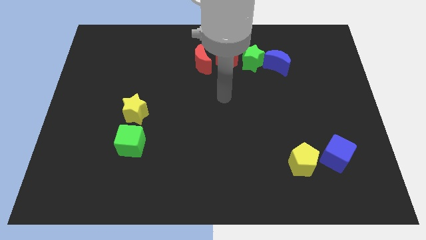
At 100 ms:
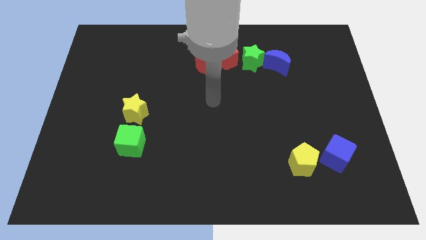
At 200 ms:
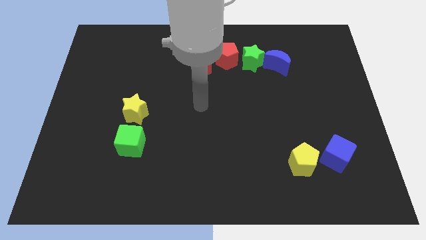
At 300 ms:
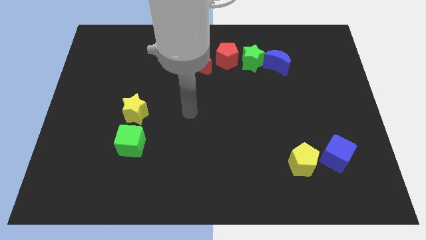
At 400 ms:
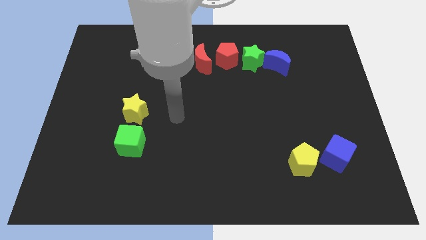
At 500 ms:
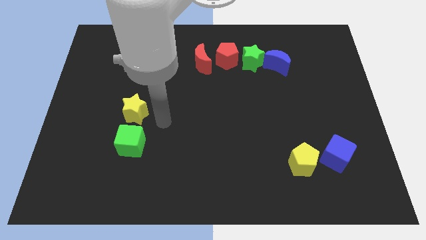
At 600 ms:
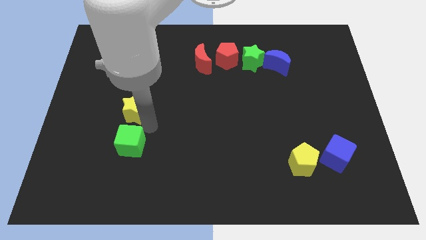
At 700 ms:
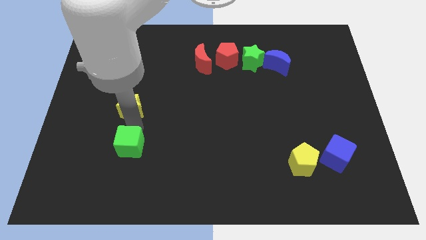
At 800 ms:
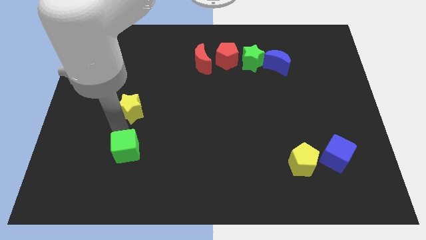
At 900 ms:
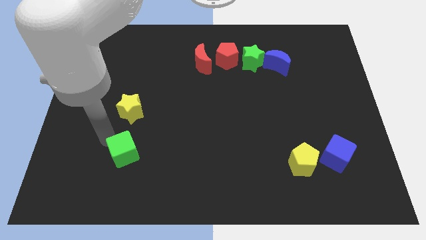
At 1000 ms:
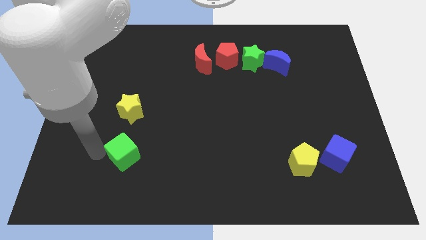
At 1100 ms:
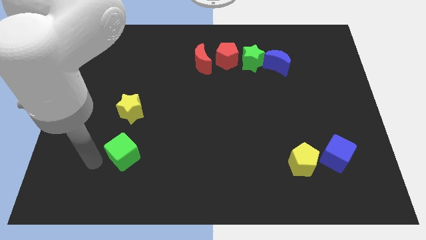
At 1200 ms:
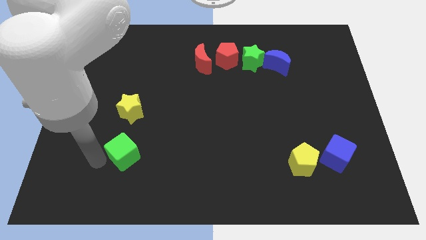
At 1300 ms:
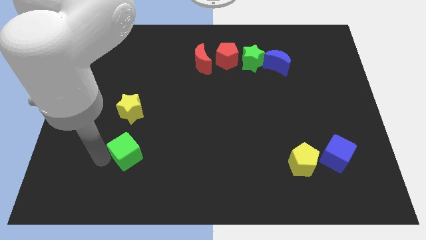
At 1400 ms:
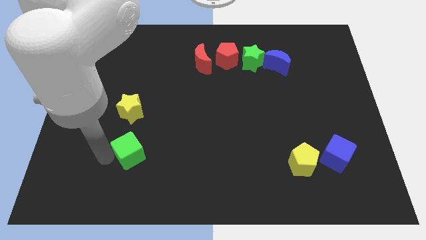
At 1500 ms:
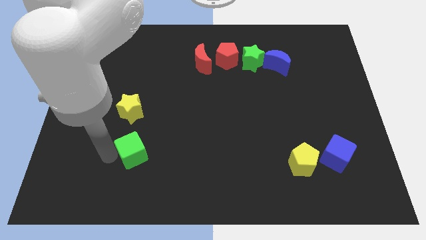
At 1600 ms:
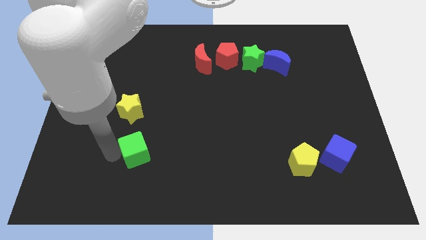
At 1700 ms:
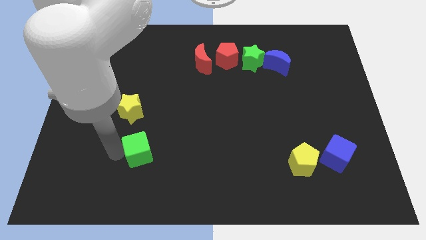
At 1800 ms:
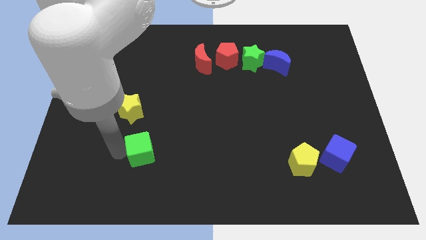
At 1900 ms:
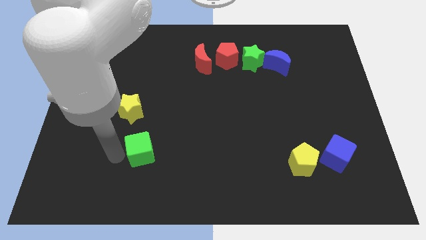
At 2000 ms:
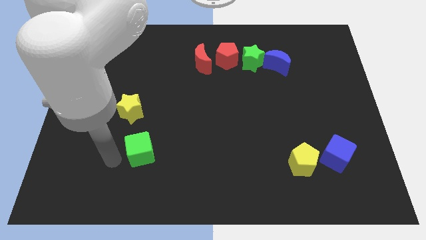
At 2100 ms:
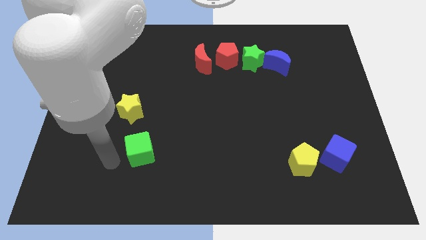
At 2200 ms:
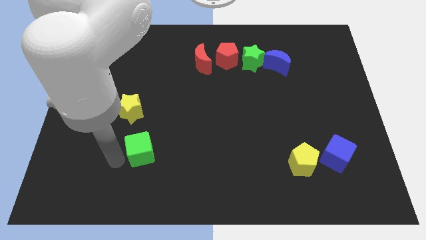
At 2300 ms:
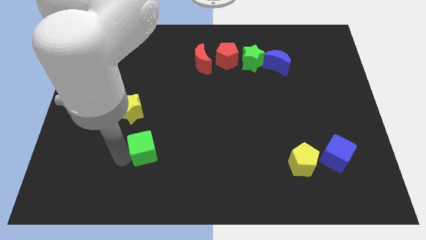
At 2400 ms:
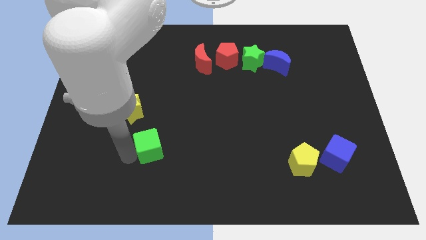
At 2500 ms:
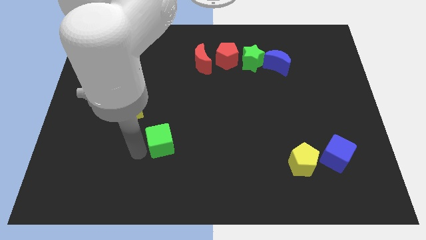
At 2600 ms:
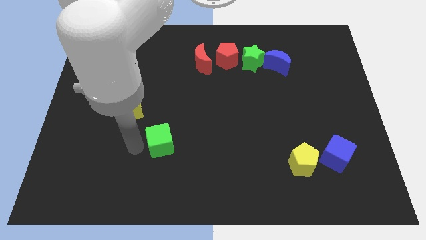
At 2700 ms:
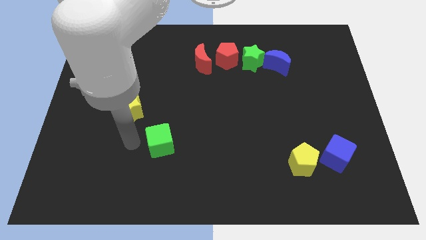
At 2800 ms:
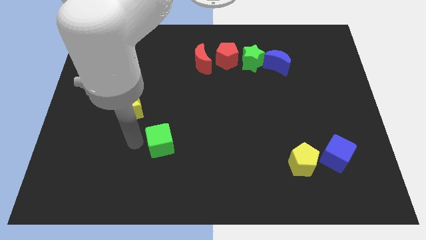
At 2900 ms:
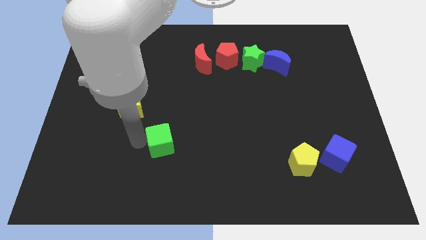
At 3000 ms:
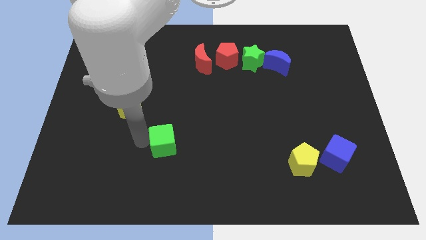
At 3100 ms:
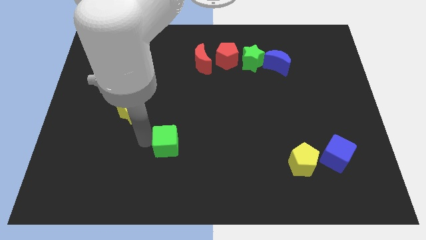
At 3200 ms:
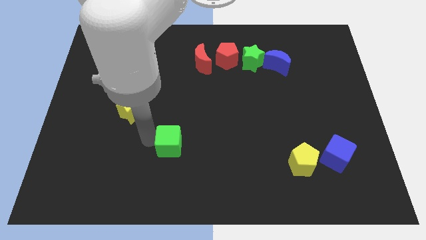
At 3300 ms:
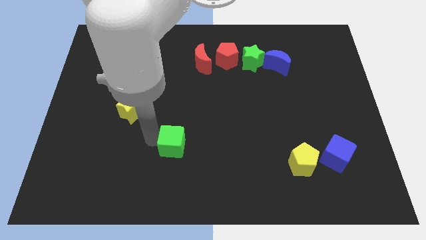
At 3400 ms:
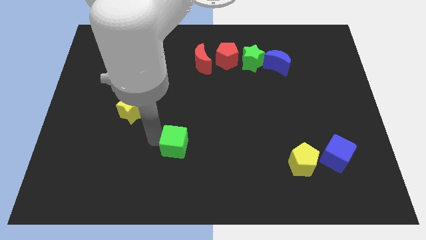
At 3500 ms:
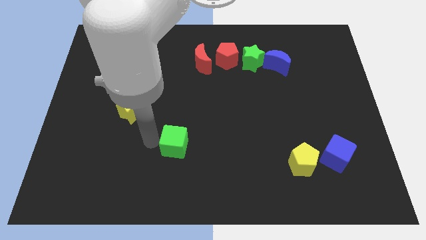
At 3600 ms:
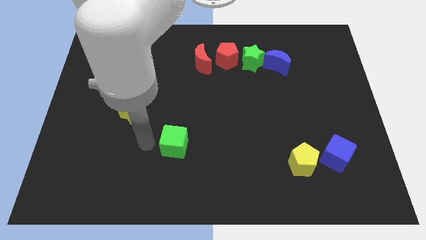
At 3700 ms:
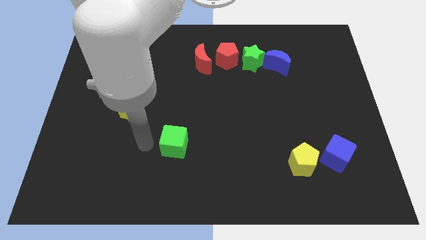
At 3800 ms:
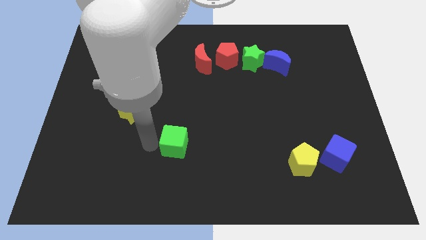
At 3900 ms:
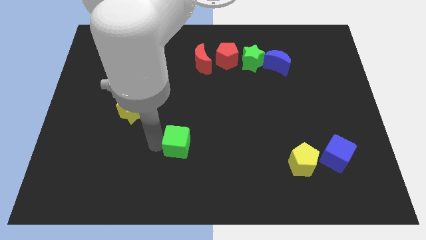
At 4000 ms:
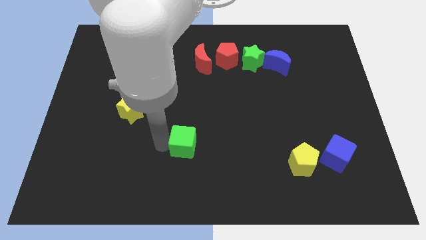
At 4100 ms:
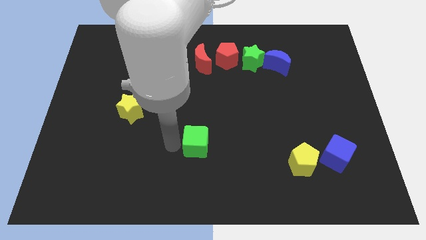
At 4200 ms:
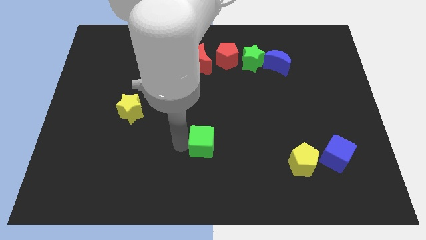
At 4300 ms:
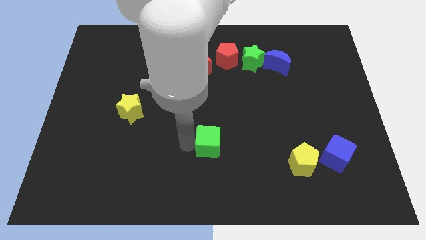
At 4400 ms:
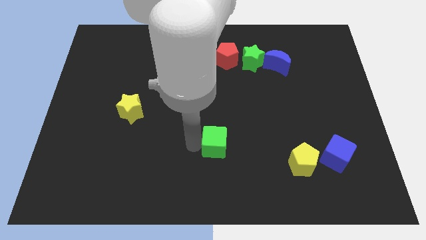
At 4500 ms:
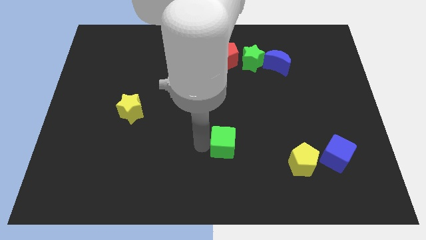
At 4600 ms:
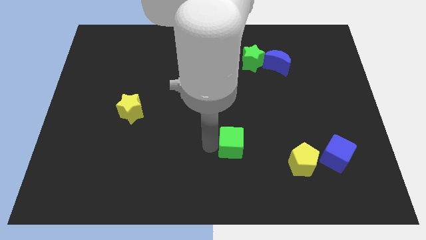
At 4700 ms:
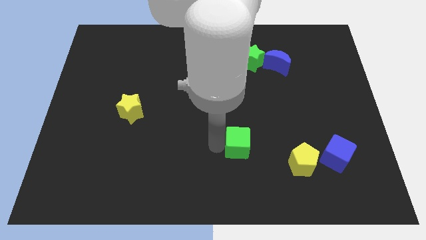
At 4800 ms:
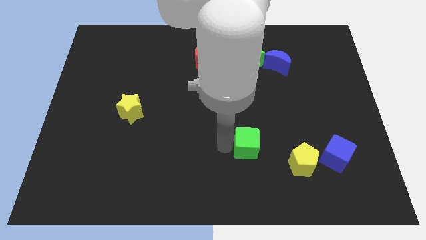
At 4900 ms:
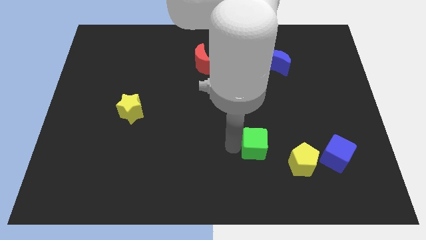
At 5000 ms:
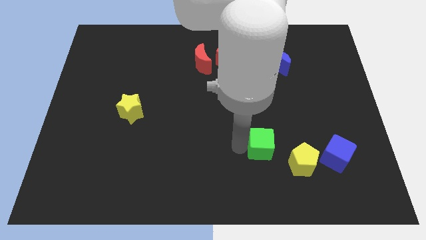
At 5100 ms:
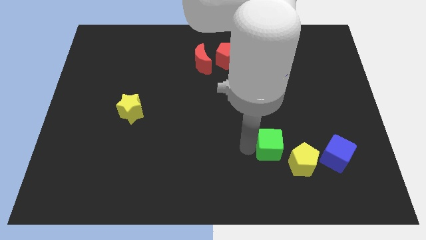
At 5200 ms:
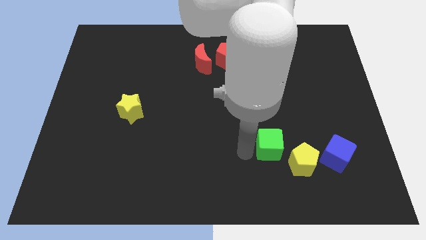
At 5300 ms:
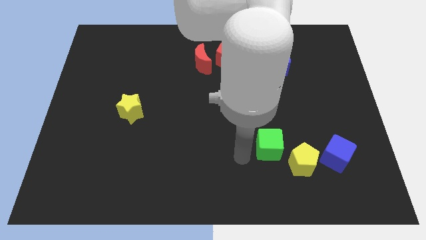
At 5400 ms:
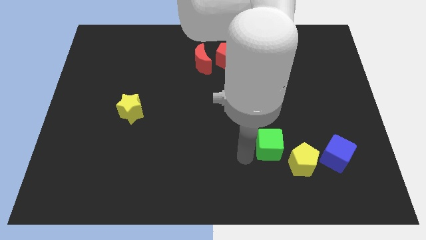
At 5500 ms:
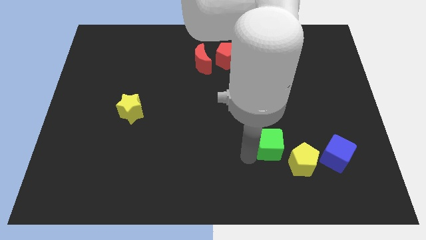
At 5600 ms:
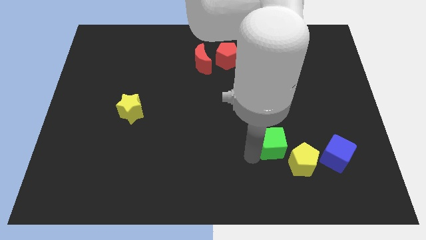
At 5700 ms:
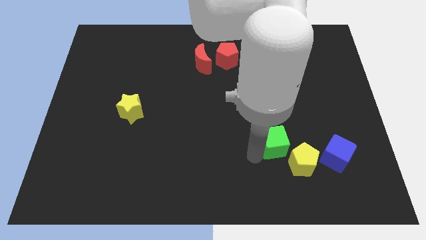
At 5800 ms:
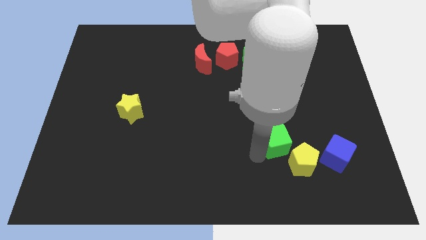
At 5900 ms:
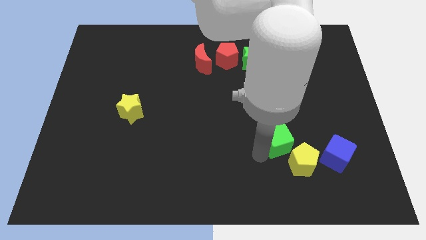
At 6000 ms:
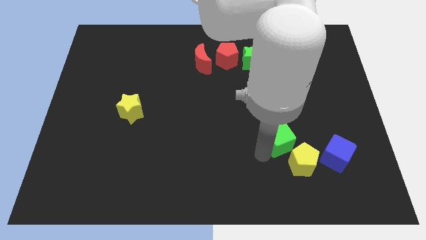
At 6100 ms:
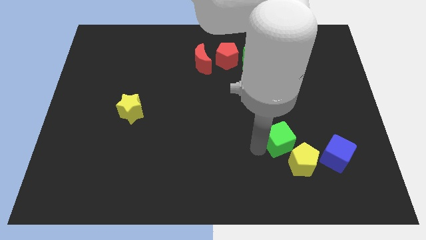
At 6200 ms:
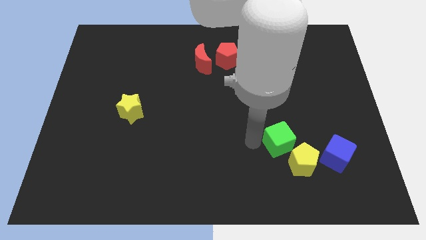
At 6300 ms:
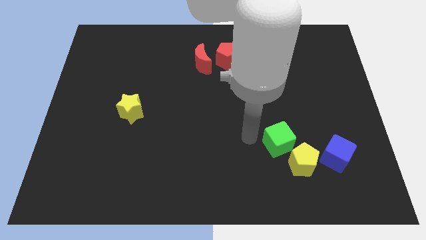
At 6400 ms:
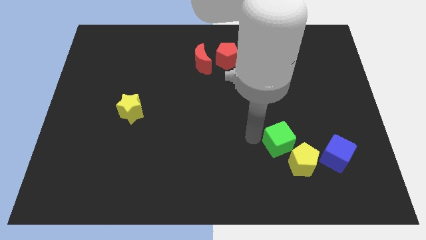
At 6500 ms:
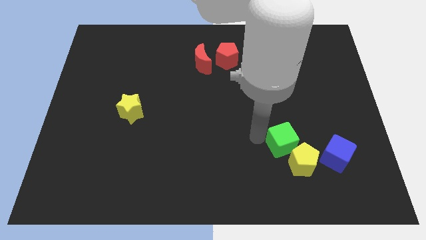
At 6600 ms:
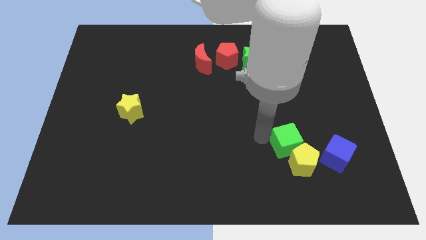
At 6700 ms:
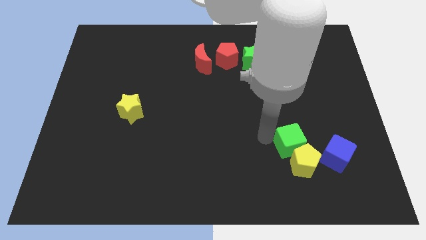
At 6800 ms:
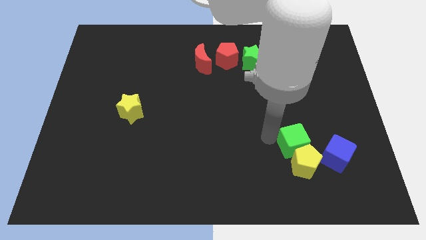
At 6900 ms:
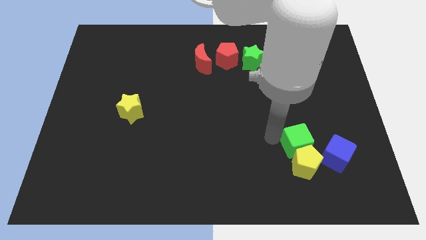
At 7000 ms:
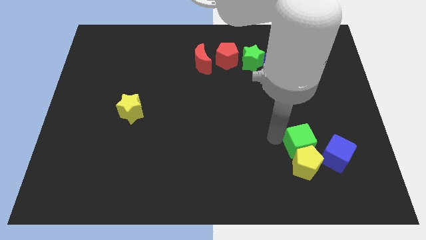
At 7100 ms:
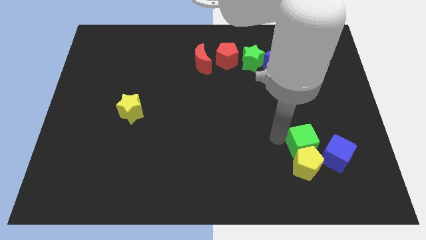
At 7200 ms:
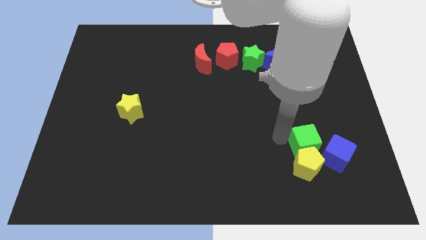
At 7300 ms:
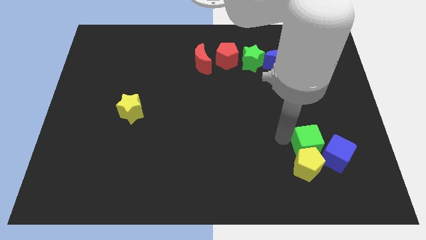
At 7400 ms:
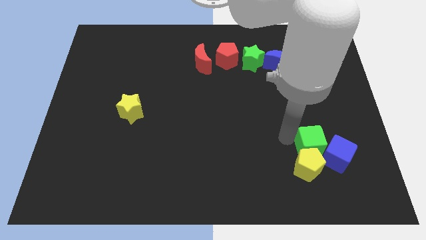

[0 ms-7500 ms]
put the green cube to the blue cube

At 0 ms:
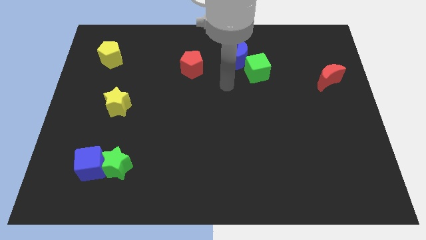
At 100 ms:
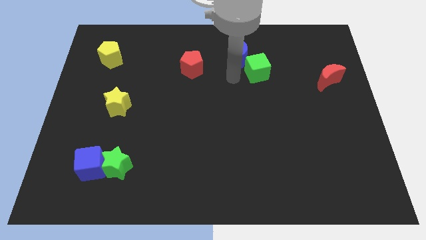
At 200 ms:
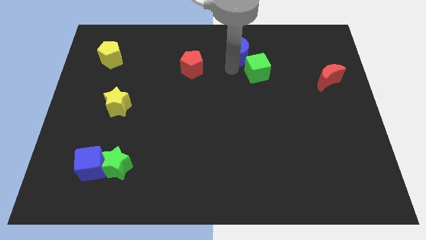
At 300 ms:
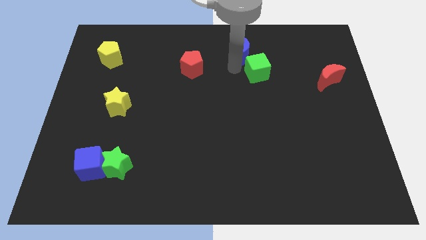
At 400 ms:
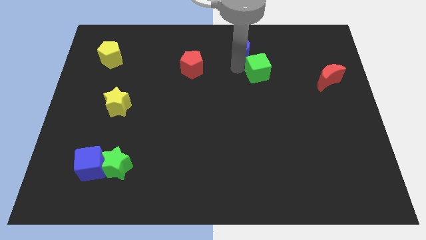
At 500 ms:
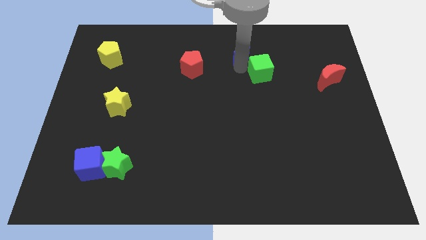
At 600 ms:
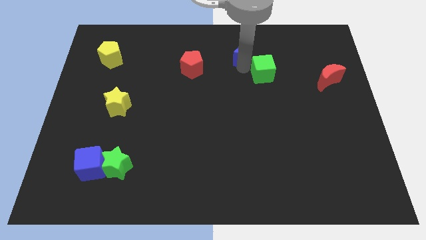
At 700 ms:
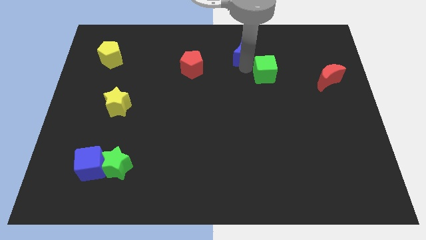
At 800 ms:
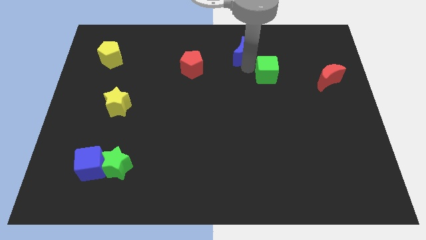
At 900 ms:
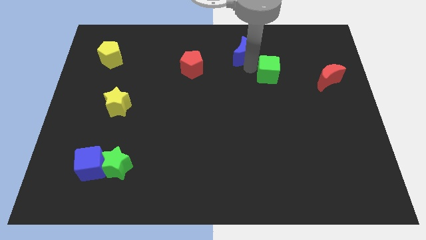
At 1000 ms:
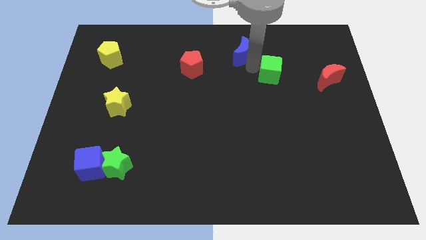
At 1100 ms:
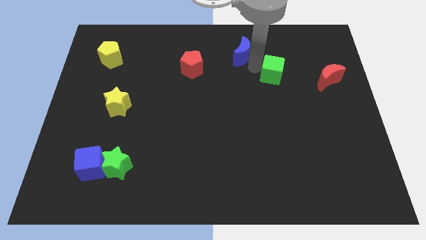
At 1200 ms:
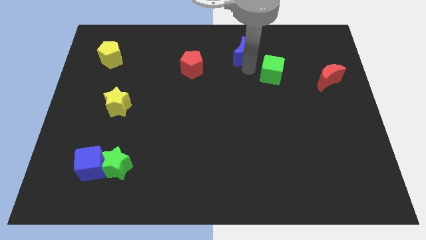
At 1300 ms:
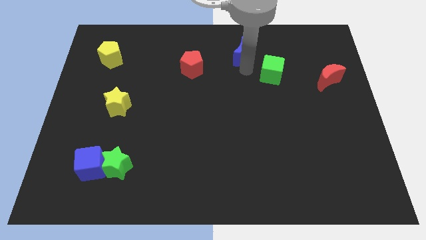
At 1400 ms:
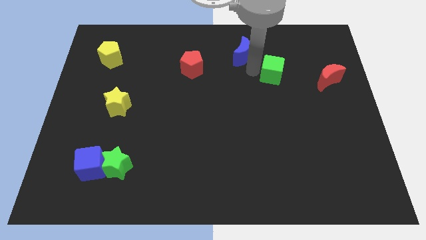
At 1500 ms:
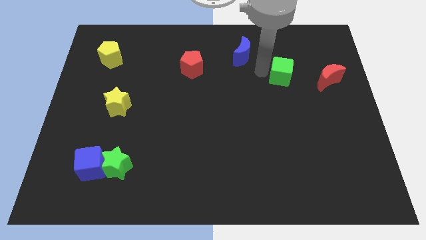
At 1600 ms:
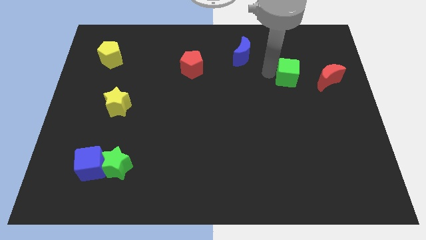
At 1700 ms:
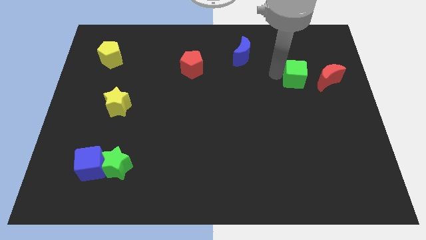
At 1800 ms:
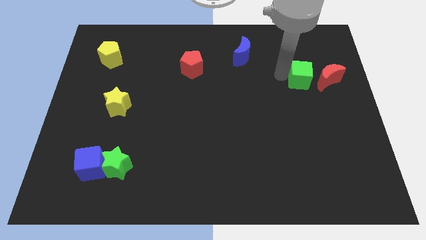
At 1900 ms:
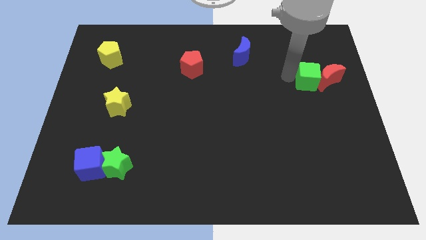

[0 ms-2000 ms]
push the green cube to the red moon
